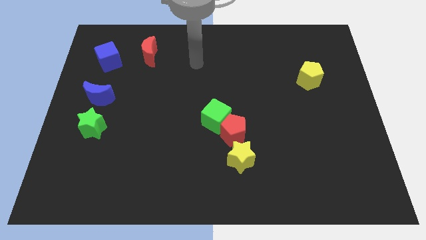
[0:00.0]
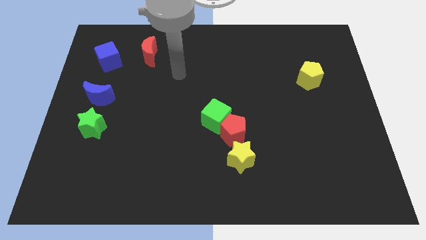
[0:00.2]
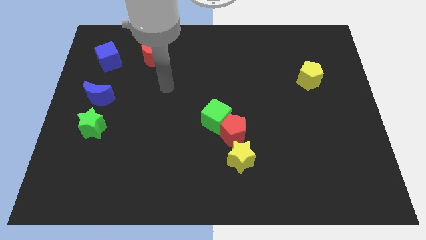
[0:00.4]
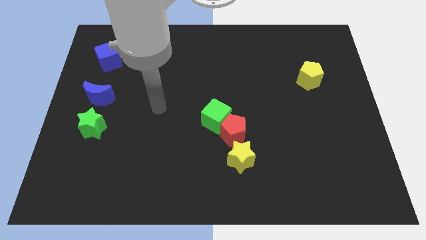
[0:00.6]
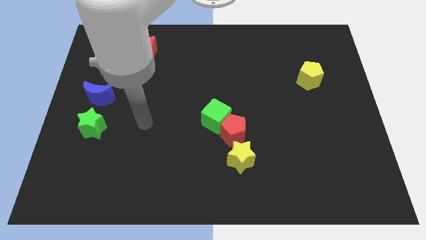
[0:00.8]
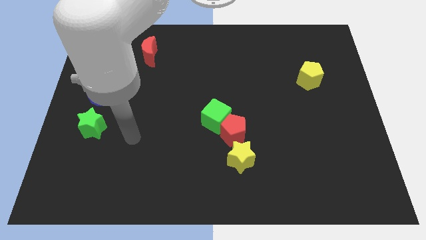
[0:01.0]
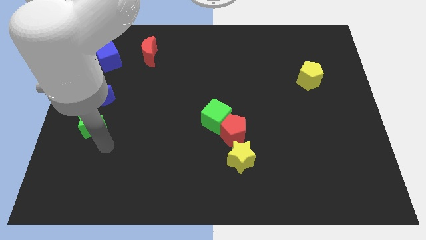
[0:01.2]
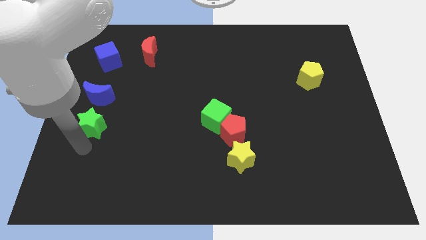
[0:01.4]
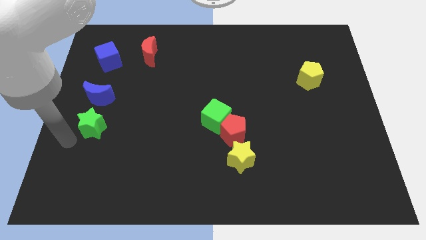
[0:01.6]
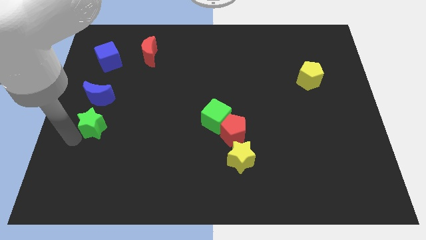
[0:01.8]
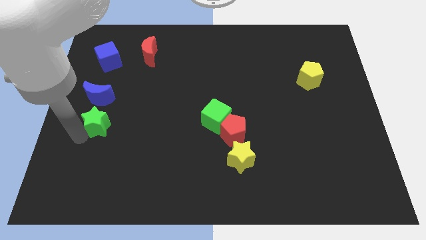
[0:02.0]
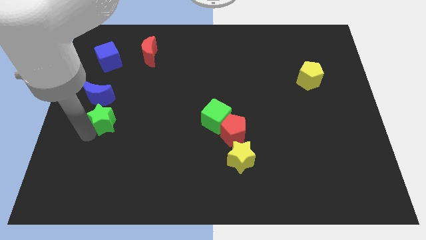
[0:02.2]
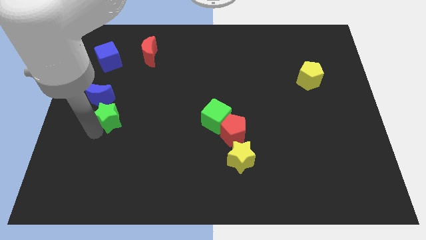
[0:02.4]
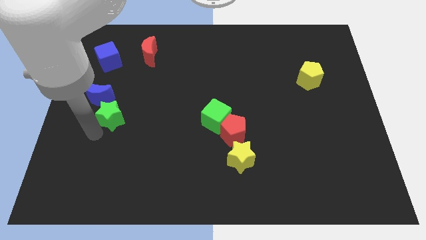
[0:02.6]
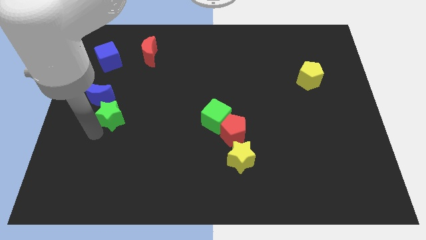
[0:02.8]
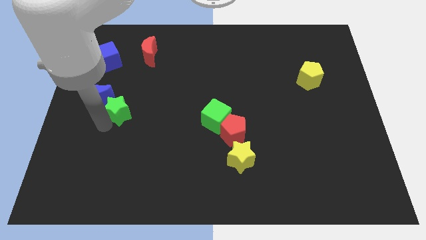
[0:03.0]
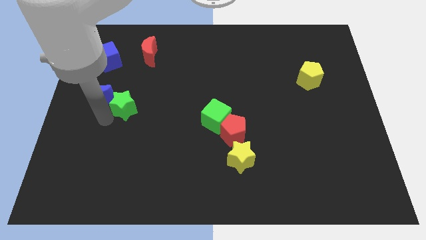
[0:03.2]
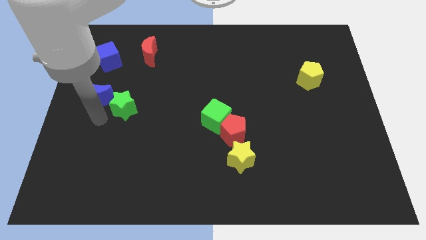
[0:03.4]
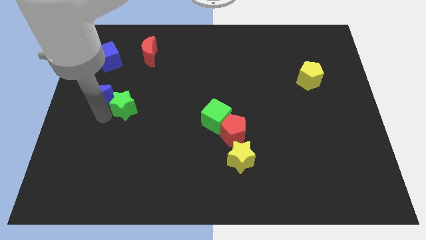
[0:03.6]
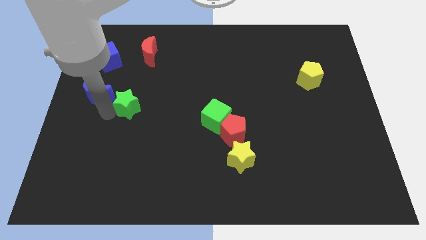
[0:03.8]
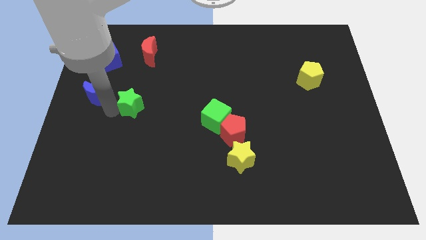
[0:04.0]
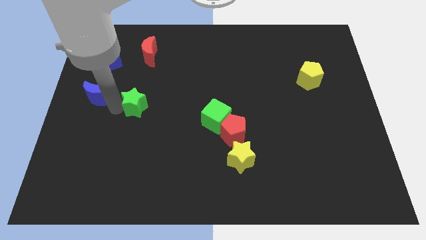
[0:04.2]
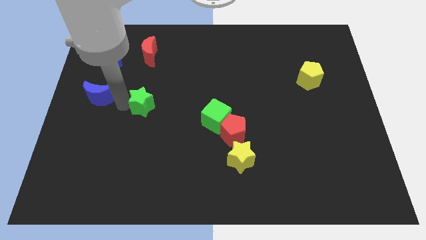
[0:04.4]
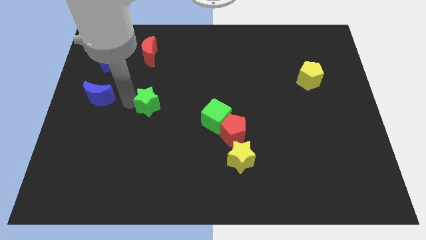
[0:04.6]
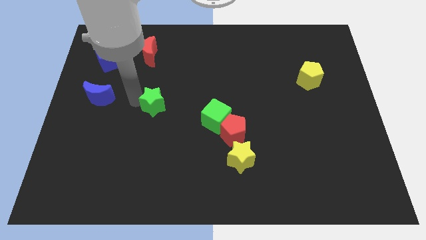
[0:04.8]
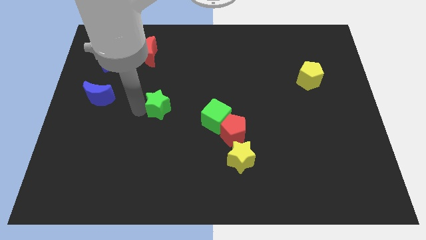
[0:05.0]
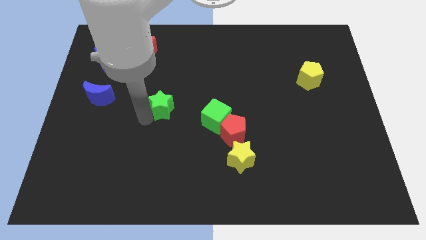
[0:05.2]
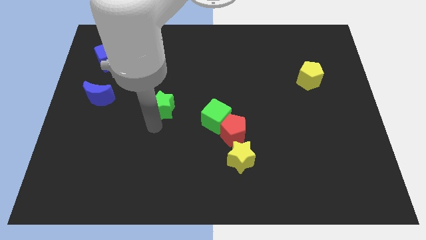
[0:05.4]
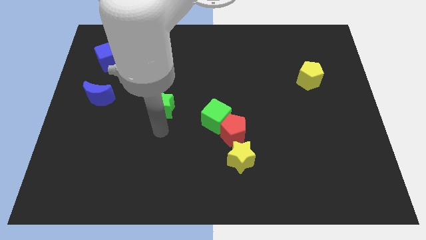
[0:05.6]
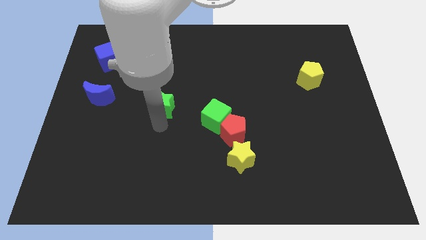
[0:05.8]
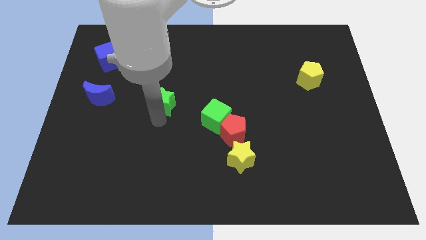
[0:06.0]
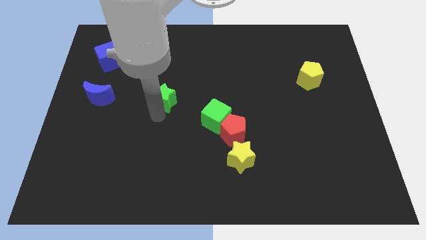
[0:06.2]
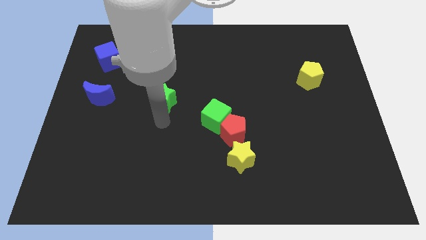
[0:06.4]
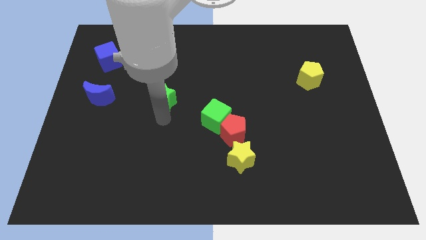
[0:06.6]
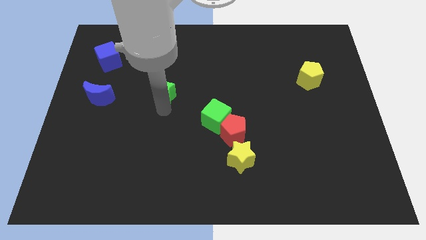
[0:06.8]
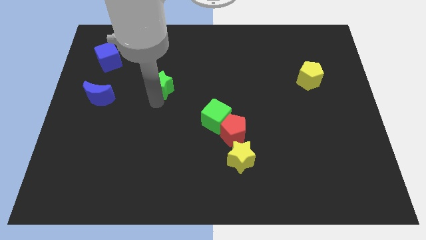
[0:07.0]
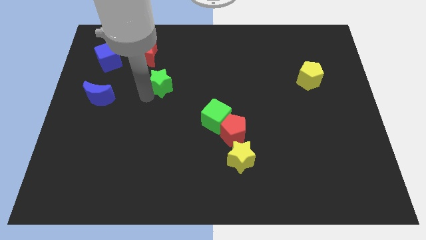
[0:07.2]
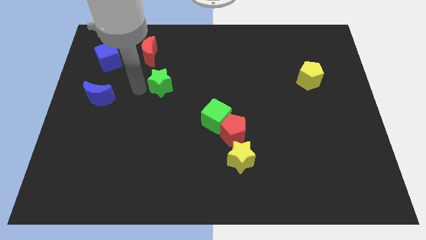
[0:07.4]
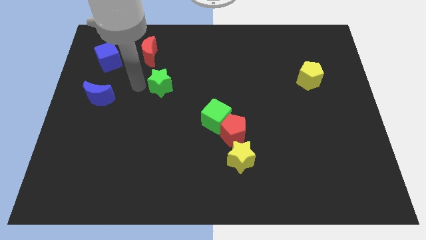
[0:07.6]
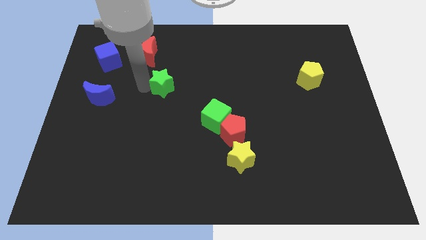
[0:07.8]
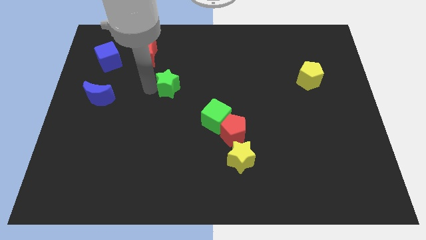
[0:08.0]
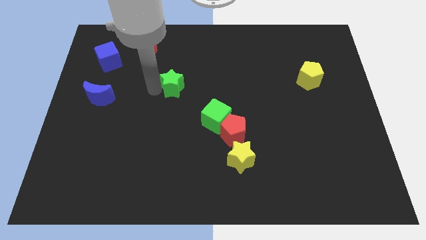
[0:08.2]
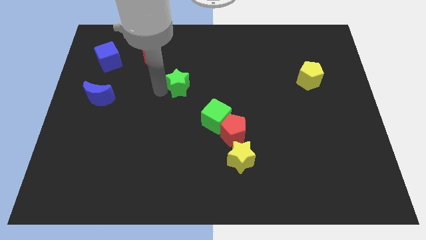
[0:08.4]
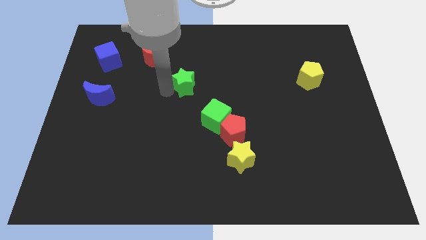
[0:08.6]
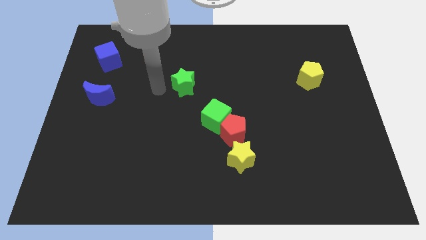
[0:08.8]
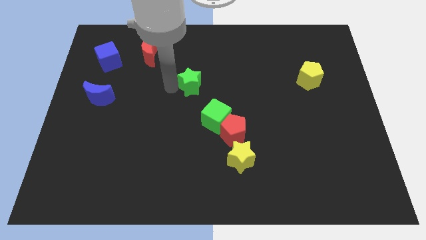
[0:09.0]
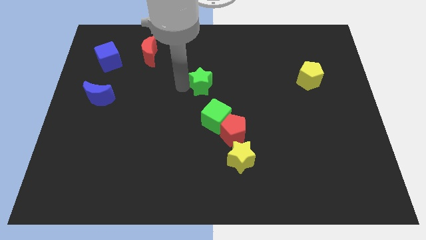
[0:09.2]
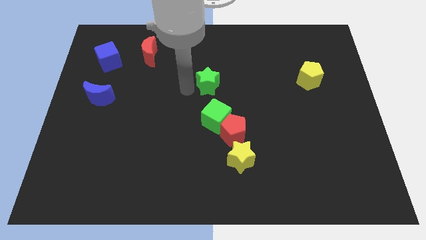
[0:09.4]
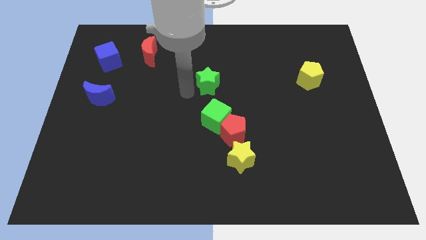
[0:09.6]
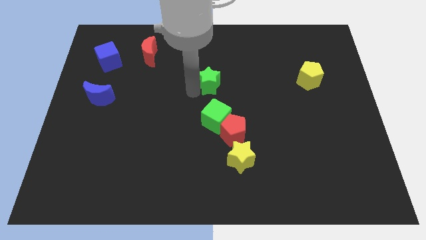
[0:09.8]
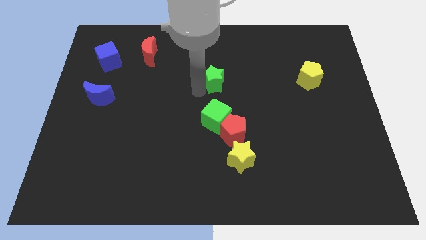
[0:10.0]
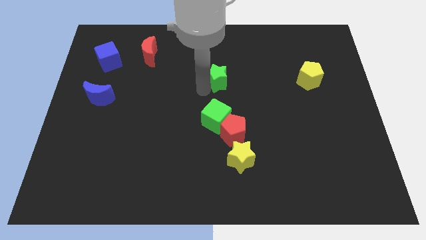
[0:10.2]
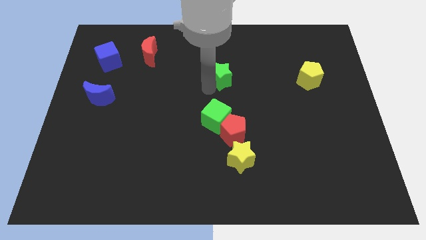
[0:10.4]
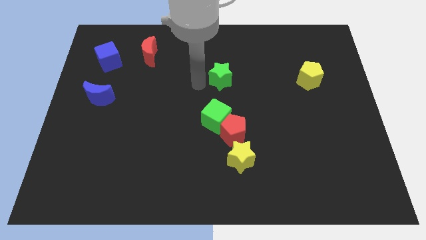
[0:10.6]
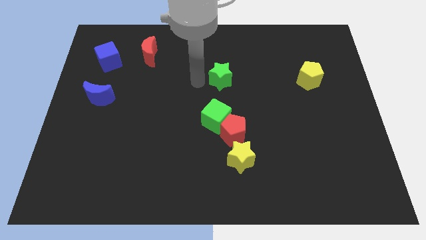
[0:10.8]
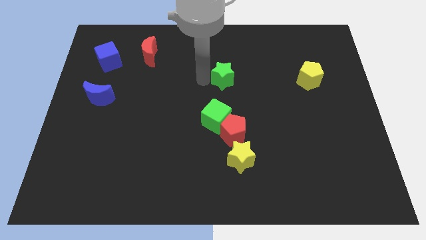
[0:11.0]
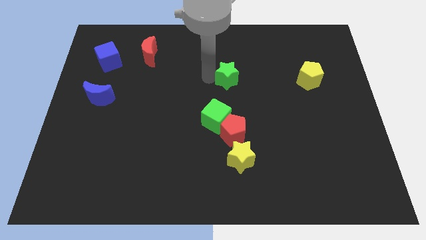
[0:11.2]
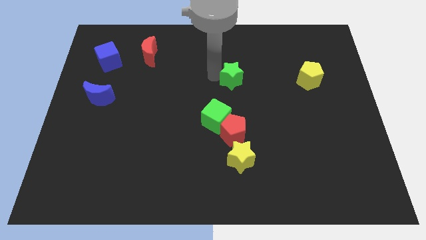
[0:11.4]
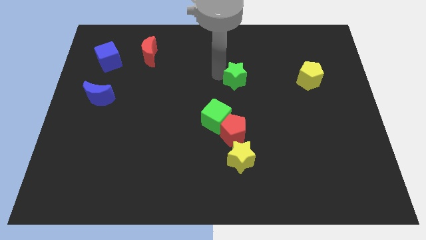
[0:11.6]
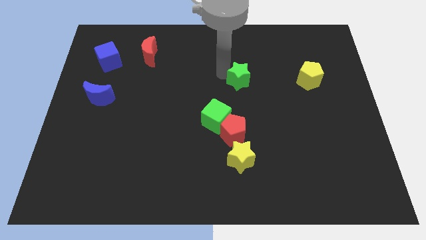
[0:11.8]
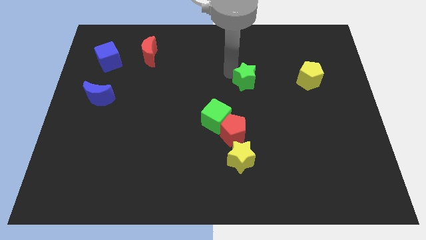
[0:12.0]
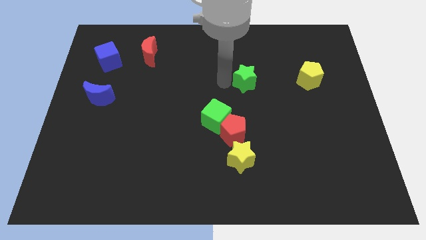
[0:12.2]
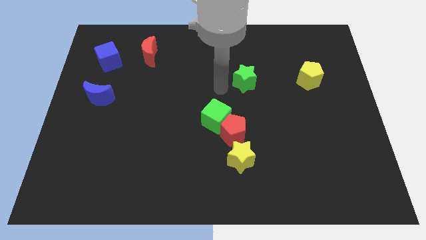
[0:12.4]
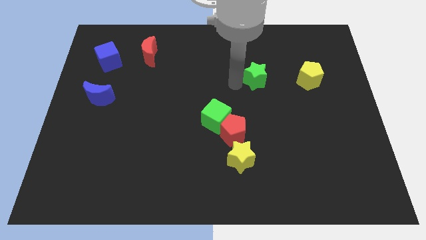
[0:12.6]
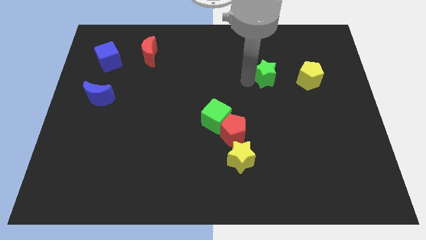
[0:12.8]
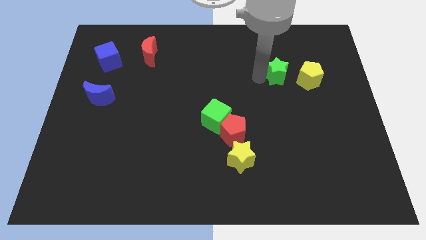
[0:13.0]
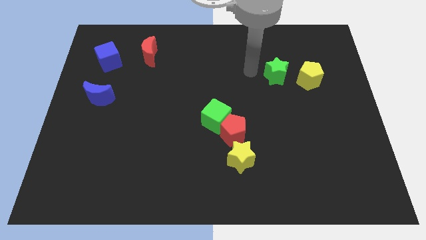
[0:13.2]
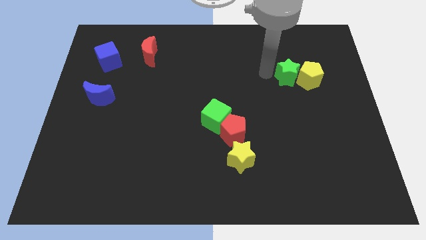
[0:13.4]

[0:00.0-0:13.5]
move the green star to the yellow pentagon

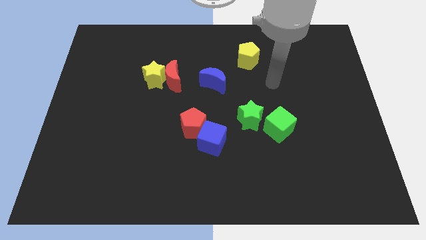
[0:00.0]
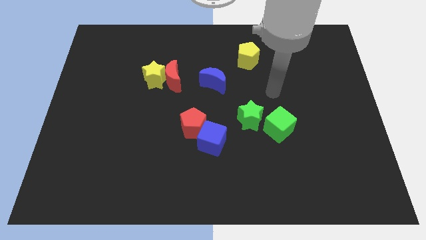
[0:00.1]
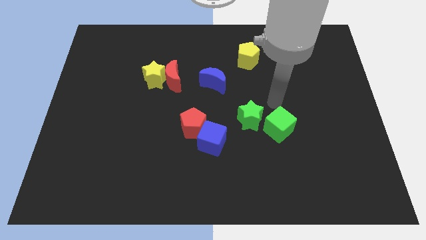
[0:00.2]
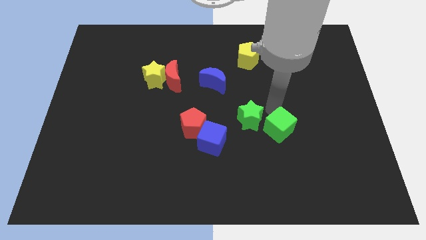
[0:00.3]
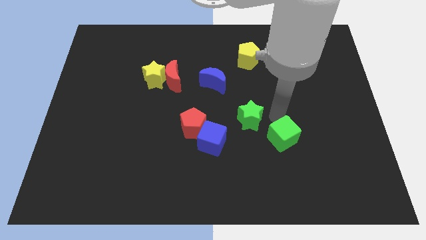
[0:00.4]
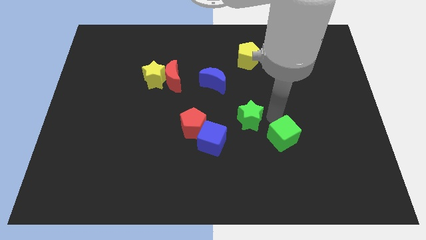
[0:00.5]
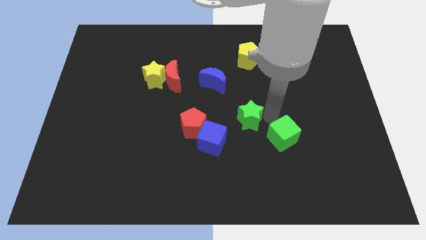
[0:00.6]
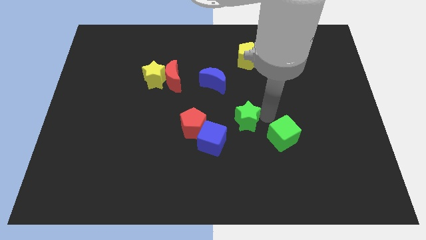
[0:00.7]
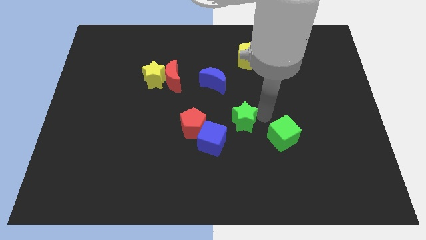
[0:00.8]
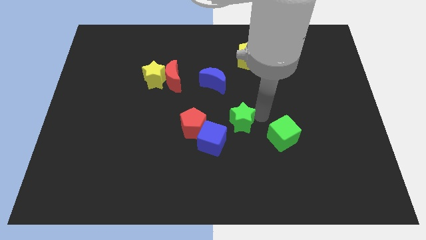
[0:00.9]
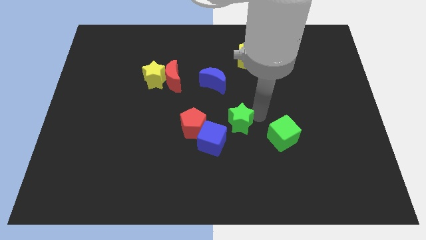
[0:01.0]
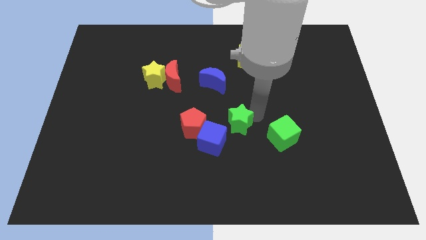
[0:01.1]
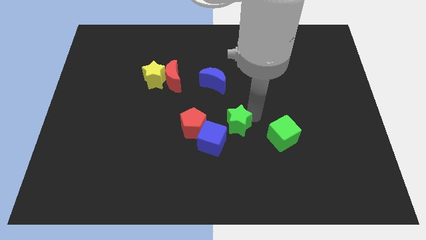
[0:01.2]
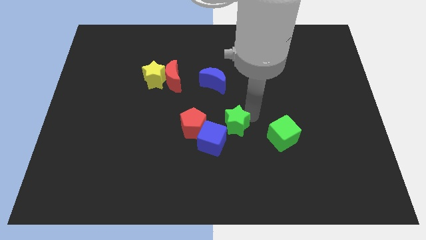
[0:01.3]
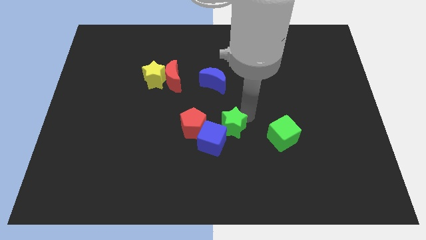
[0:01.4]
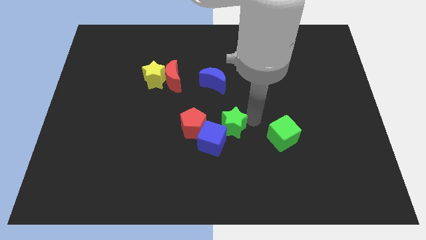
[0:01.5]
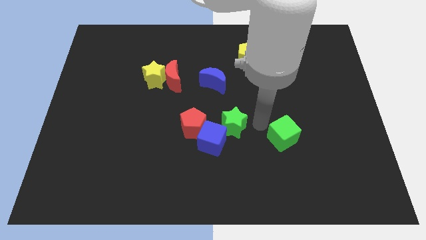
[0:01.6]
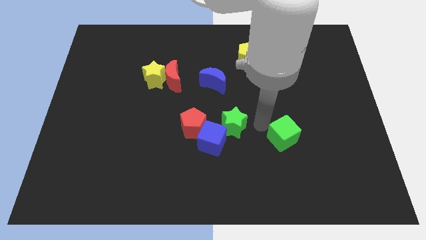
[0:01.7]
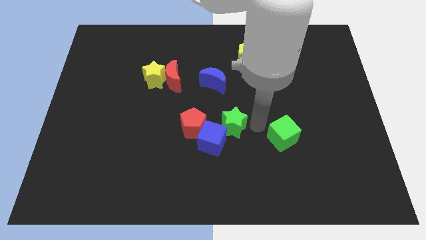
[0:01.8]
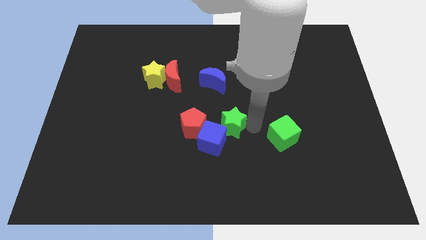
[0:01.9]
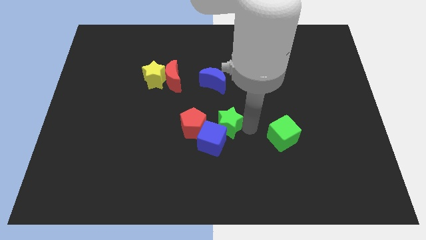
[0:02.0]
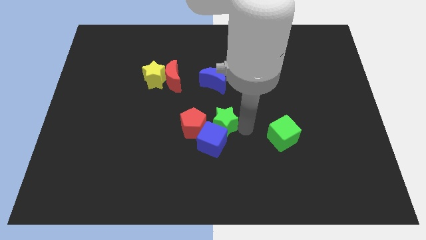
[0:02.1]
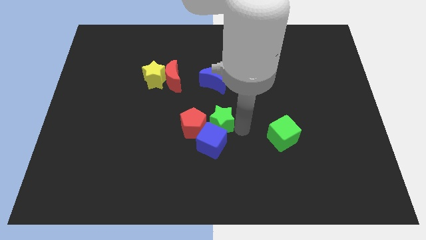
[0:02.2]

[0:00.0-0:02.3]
move the green star close to the red pentagon
